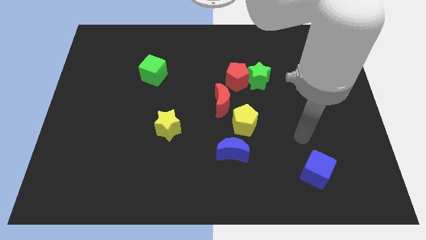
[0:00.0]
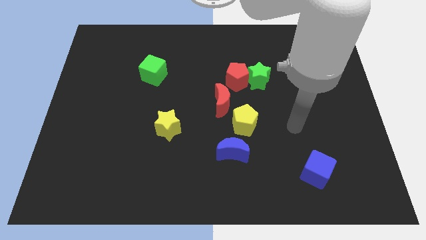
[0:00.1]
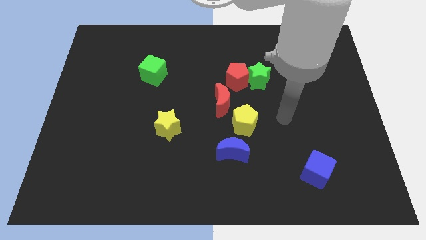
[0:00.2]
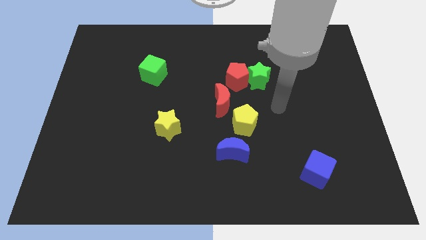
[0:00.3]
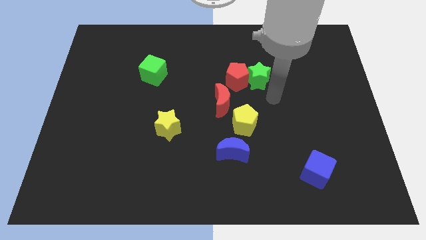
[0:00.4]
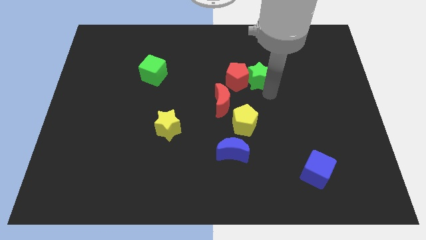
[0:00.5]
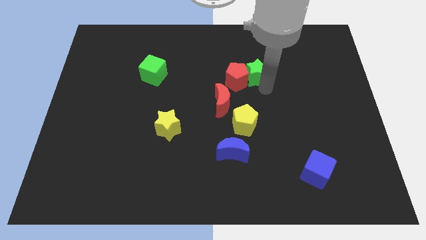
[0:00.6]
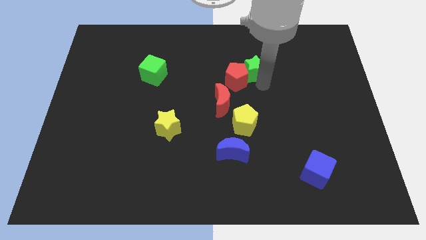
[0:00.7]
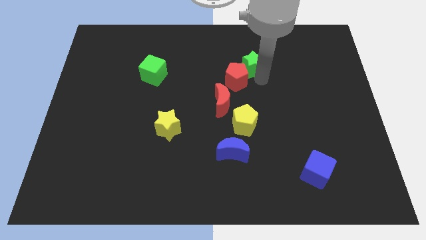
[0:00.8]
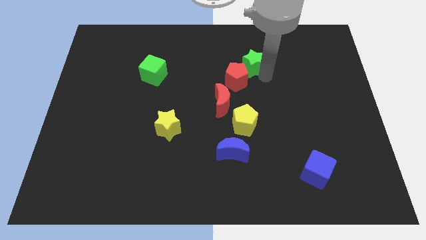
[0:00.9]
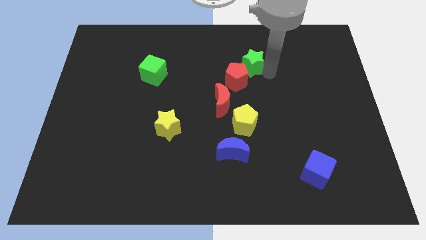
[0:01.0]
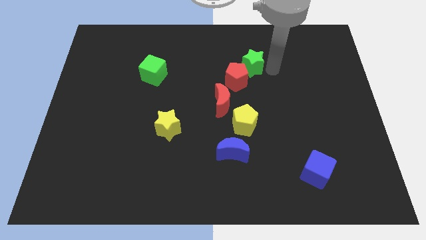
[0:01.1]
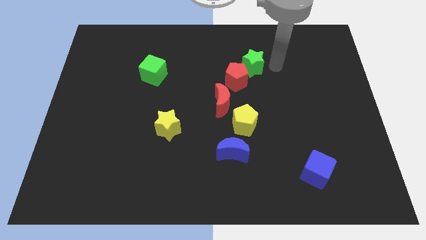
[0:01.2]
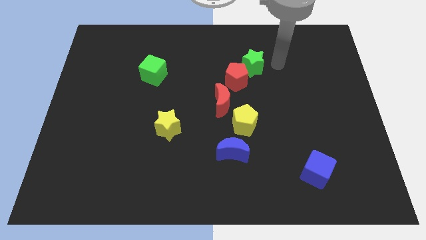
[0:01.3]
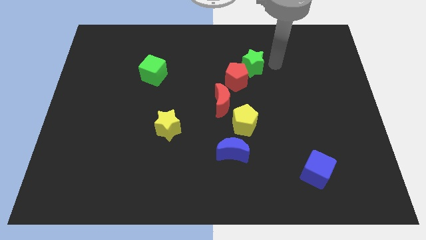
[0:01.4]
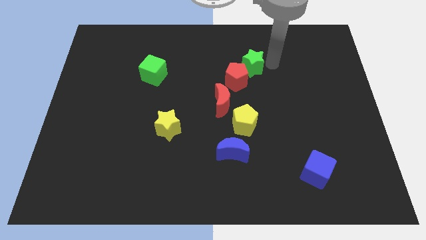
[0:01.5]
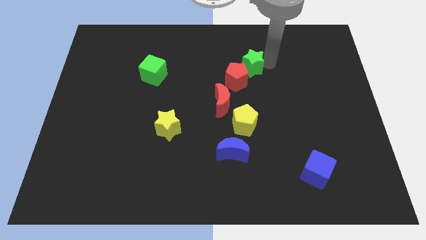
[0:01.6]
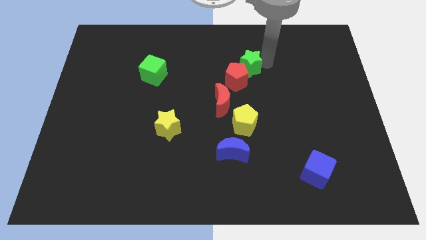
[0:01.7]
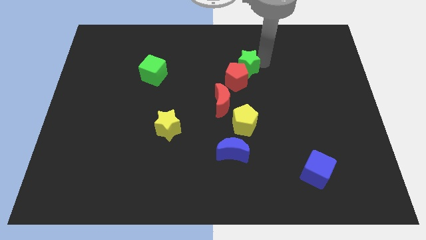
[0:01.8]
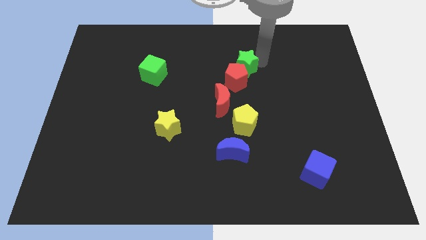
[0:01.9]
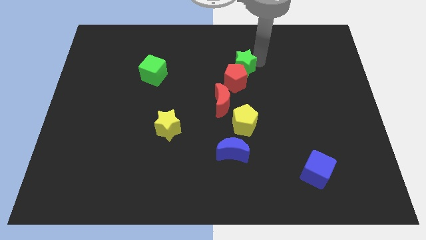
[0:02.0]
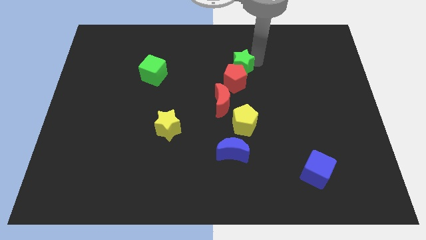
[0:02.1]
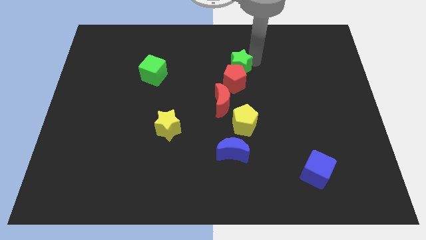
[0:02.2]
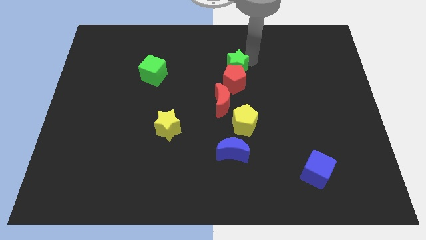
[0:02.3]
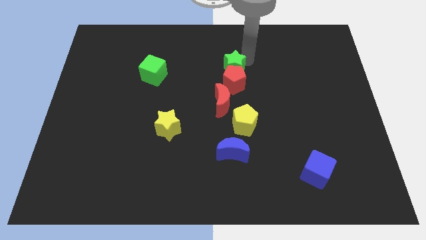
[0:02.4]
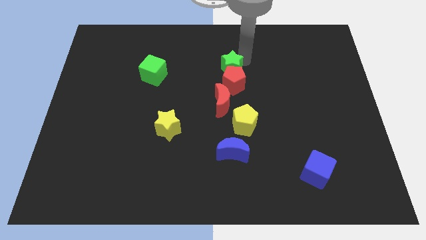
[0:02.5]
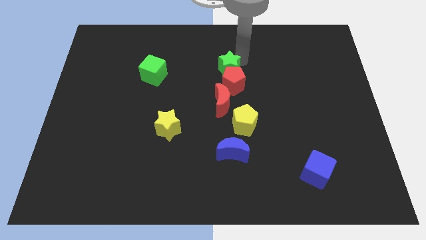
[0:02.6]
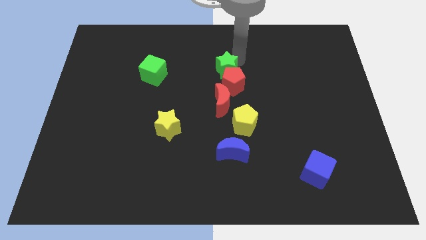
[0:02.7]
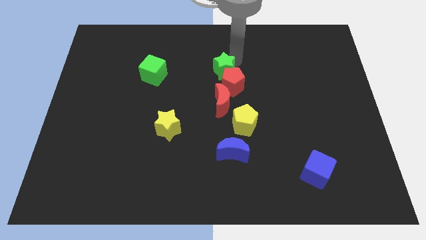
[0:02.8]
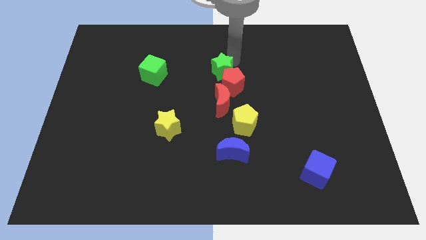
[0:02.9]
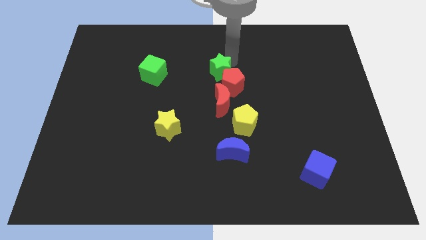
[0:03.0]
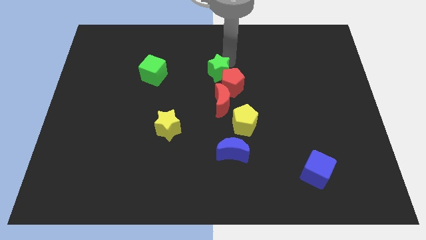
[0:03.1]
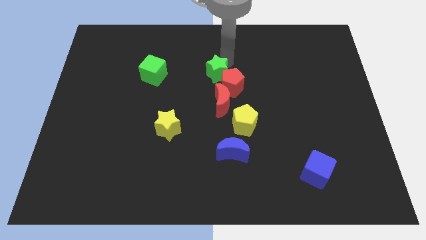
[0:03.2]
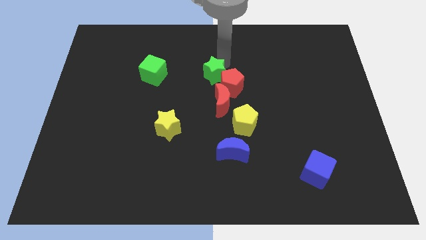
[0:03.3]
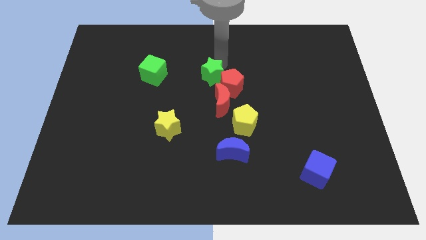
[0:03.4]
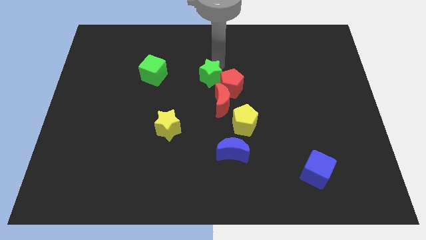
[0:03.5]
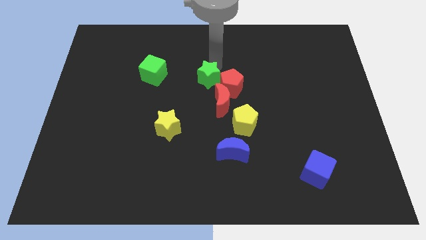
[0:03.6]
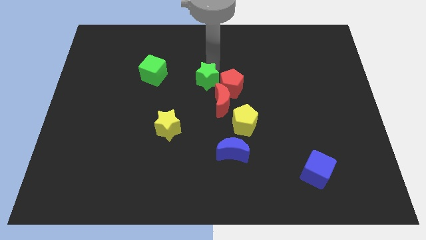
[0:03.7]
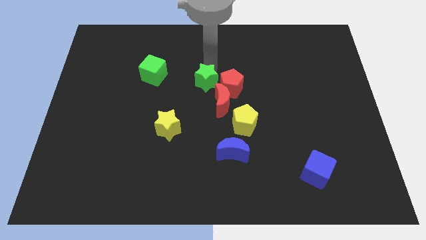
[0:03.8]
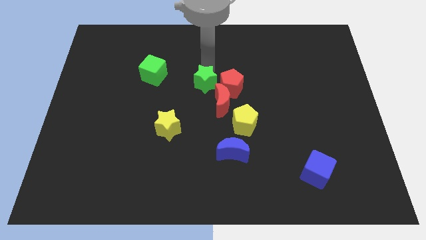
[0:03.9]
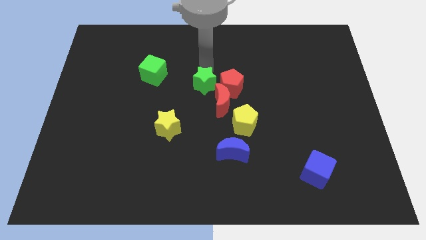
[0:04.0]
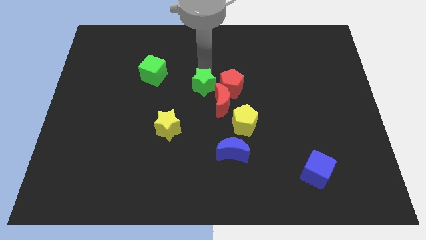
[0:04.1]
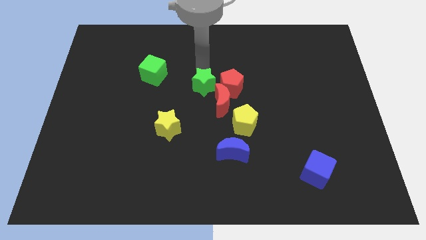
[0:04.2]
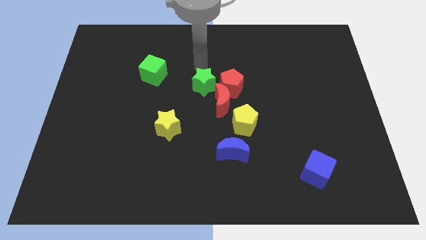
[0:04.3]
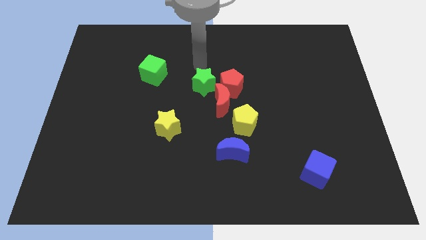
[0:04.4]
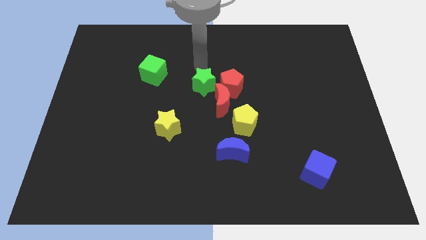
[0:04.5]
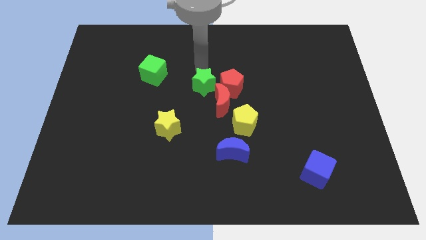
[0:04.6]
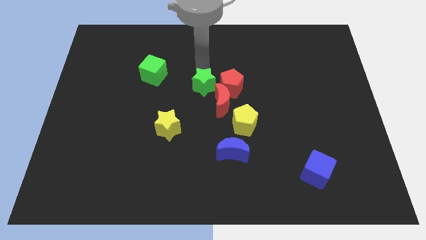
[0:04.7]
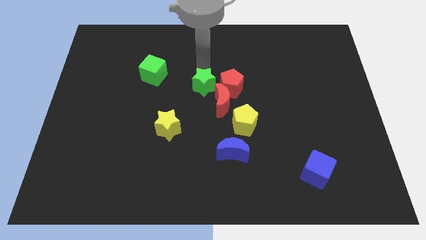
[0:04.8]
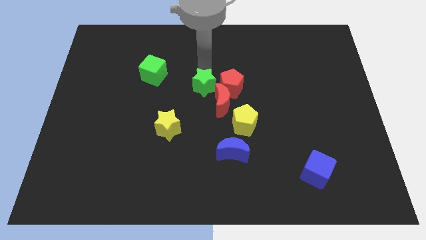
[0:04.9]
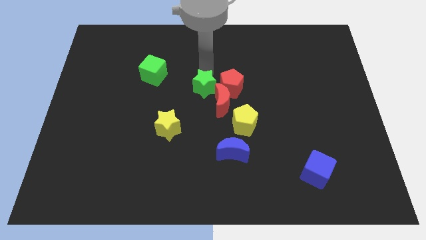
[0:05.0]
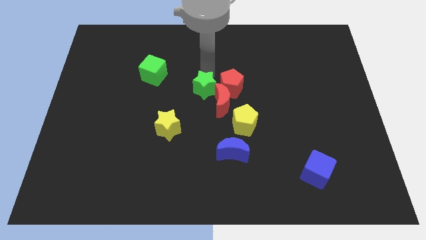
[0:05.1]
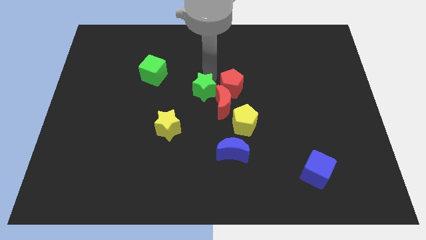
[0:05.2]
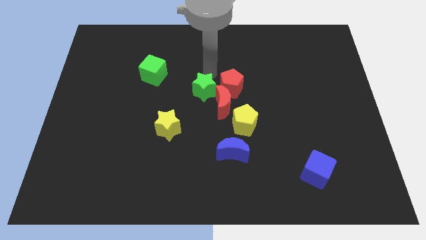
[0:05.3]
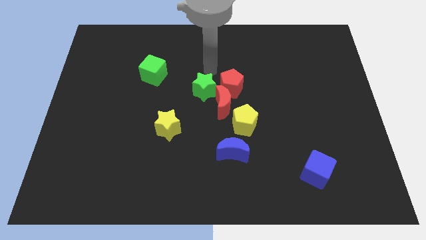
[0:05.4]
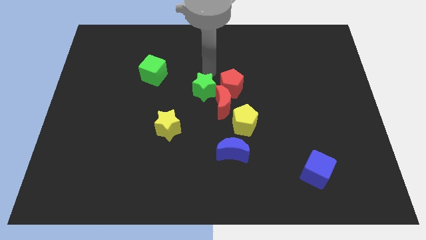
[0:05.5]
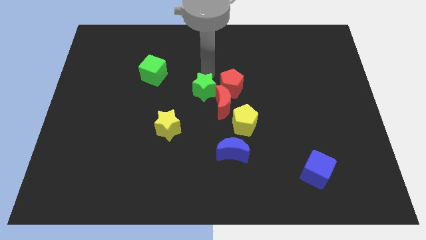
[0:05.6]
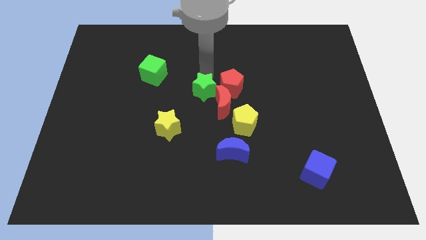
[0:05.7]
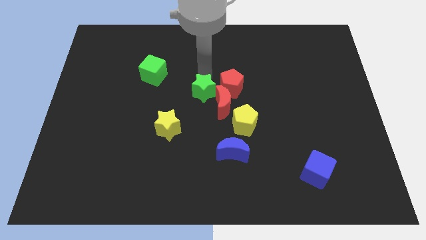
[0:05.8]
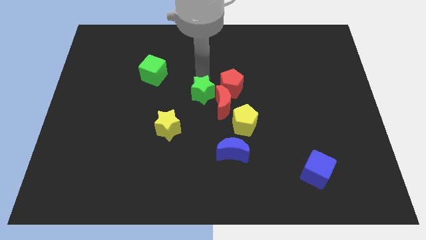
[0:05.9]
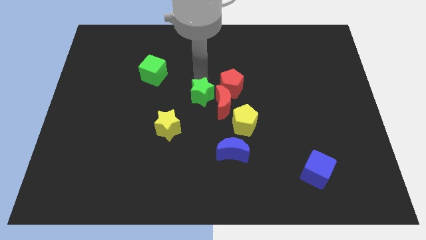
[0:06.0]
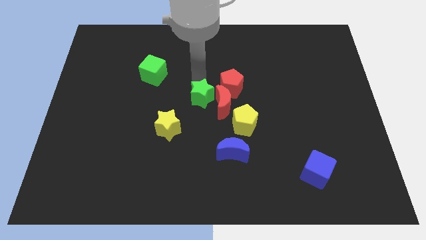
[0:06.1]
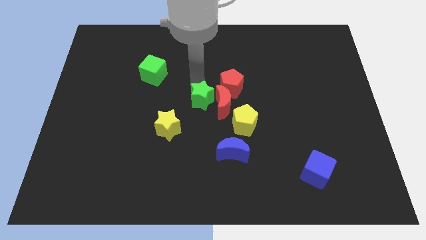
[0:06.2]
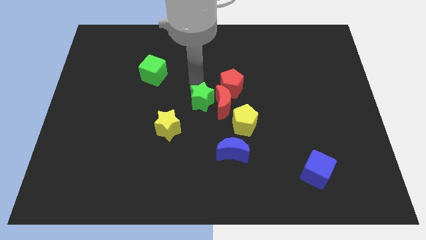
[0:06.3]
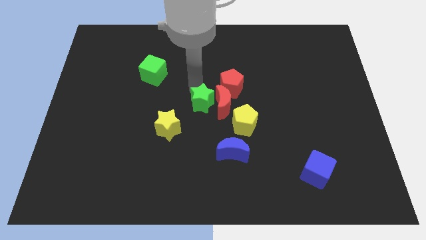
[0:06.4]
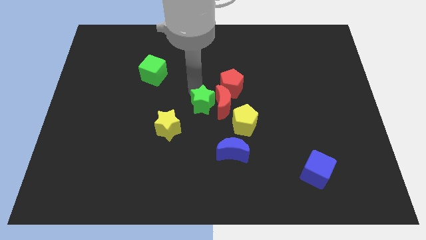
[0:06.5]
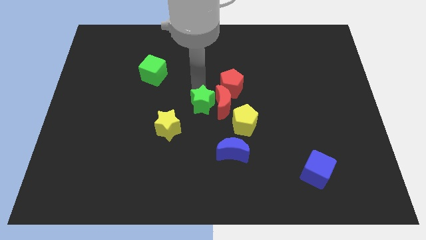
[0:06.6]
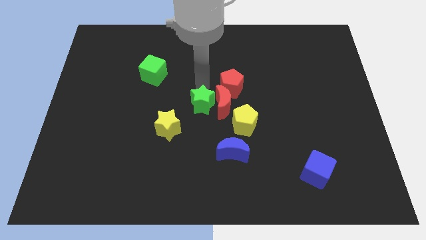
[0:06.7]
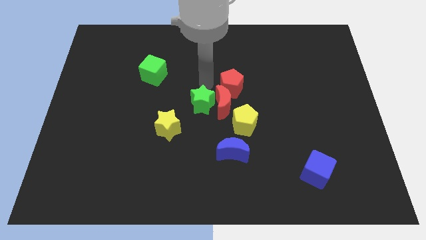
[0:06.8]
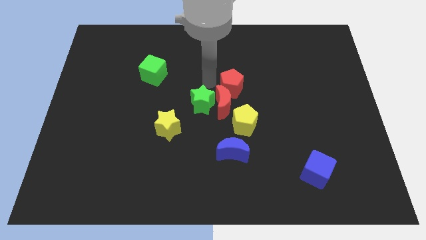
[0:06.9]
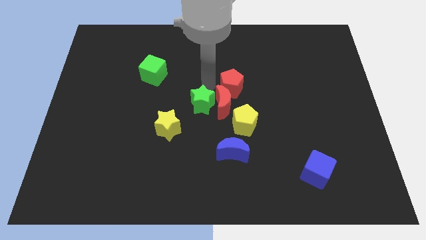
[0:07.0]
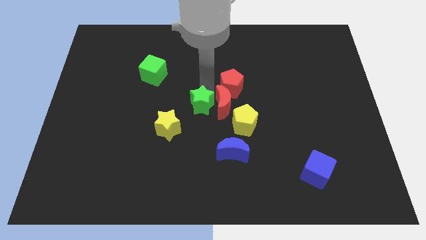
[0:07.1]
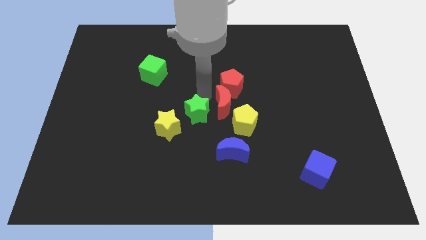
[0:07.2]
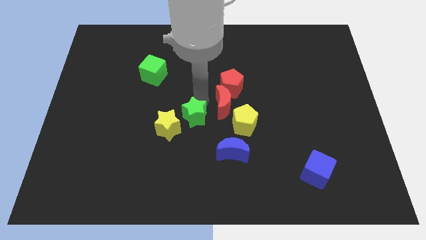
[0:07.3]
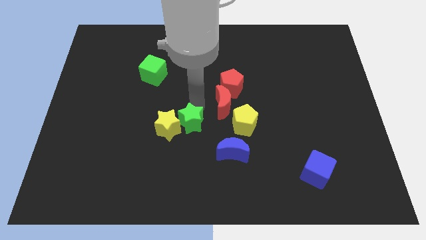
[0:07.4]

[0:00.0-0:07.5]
push the green star diagonally down and to the left

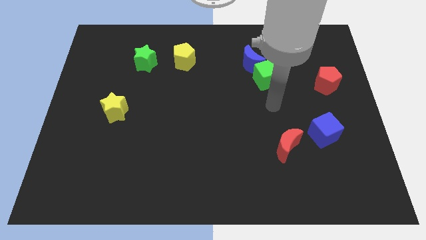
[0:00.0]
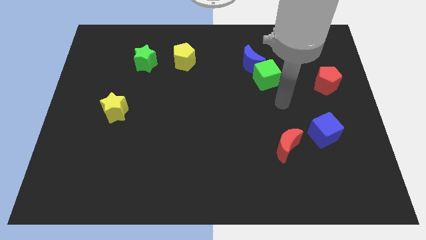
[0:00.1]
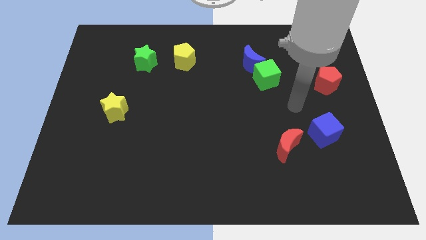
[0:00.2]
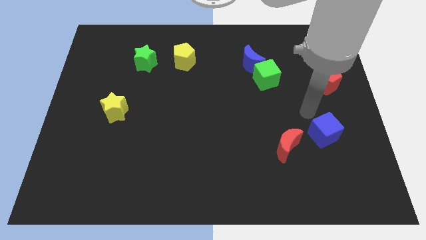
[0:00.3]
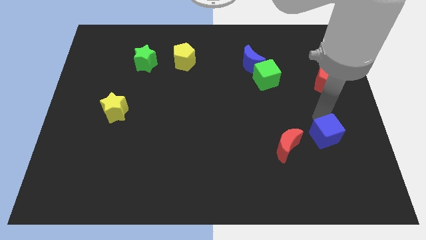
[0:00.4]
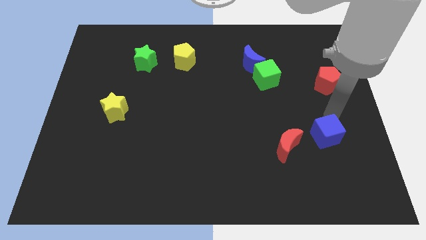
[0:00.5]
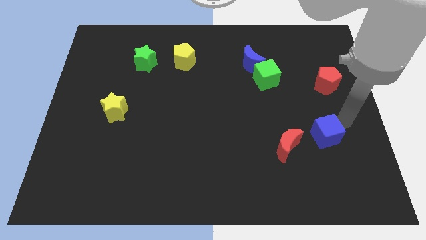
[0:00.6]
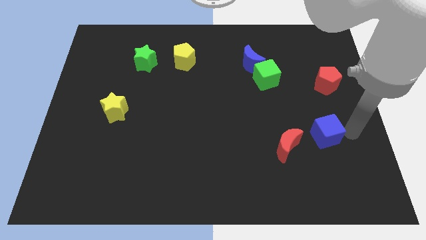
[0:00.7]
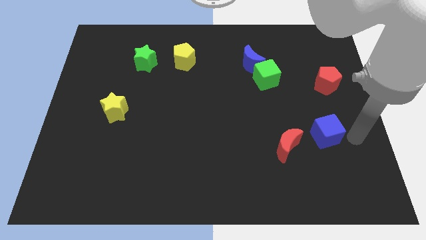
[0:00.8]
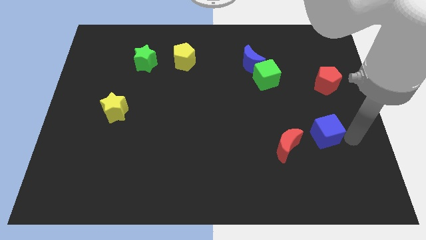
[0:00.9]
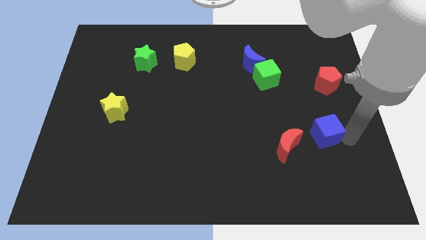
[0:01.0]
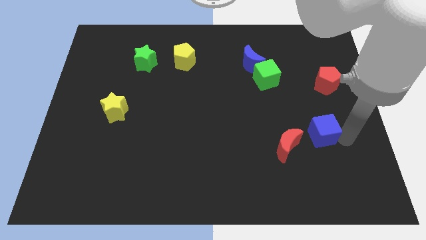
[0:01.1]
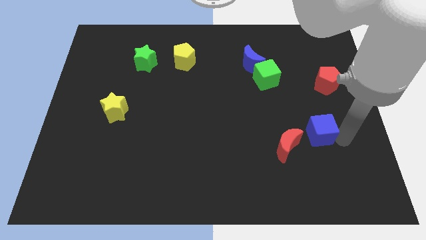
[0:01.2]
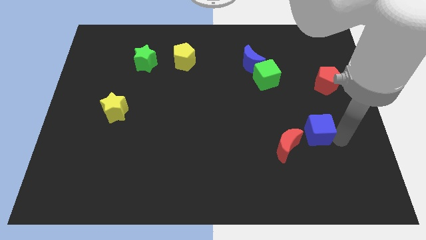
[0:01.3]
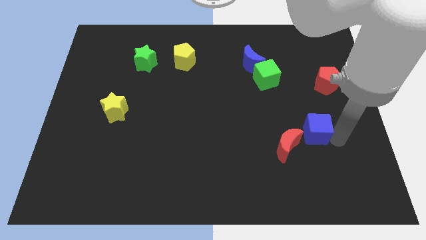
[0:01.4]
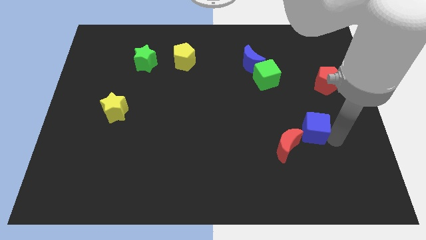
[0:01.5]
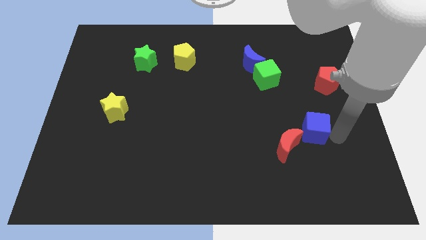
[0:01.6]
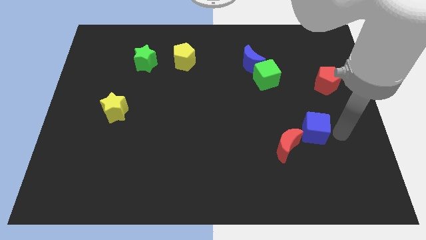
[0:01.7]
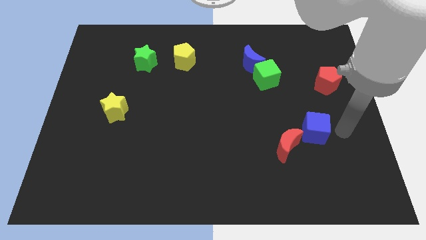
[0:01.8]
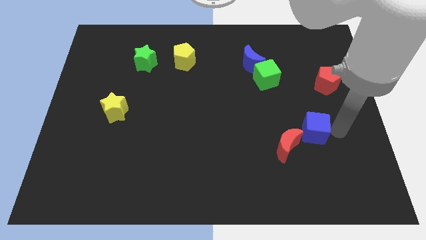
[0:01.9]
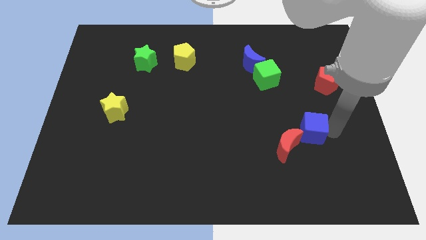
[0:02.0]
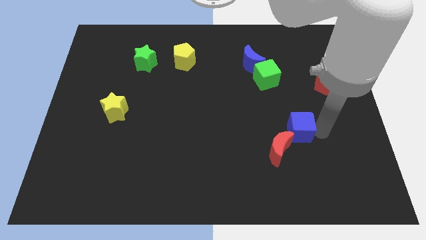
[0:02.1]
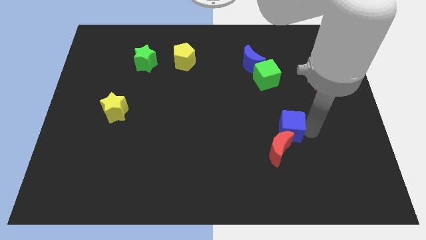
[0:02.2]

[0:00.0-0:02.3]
slide the blue cube left a bit
